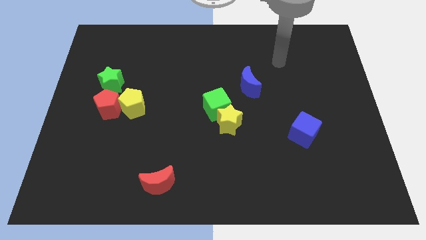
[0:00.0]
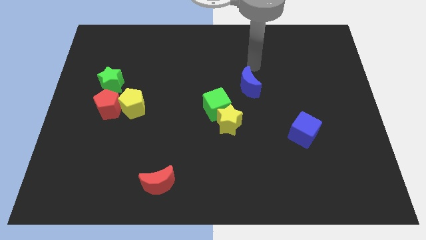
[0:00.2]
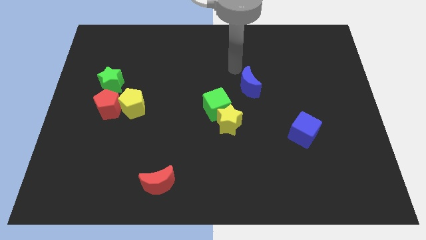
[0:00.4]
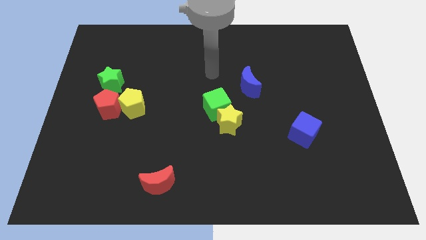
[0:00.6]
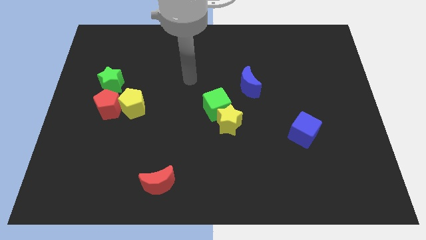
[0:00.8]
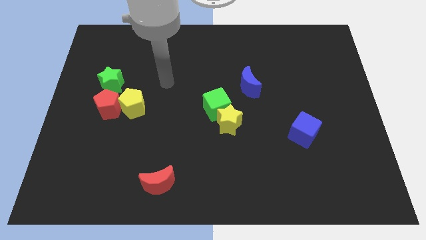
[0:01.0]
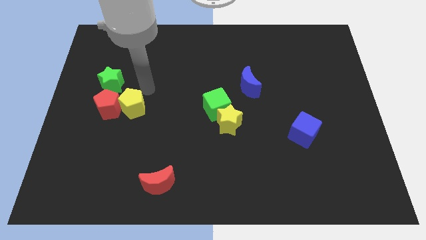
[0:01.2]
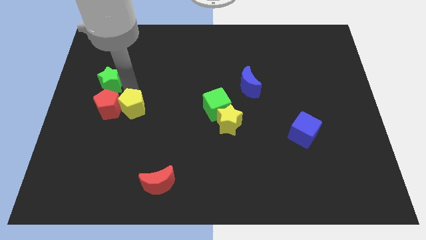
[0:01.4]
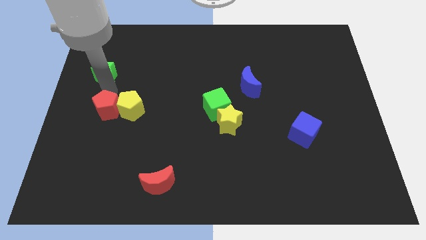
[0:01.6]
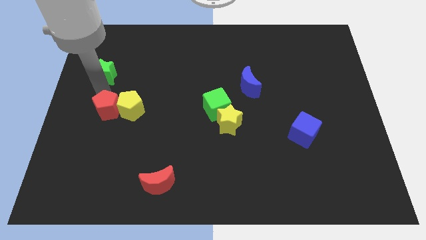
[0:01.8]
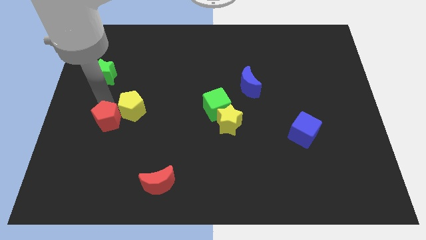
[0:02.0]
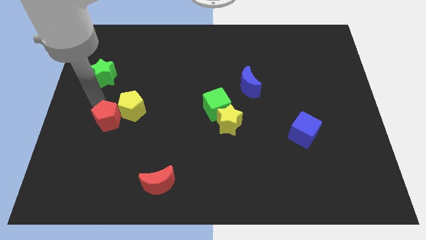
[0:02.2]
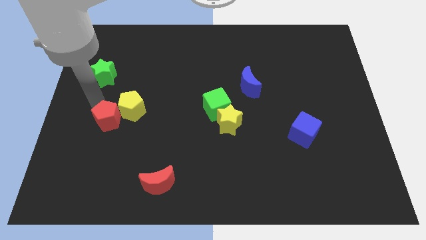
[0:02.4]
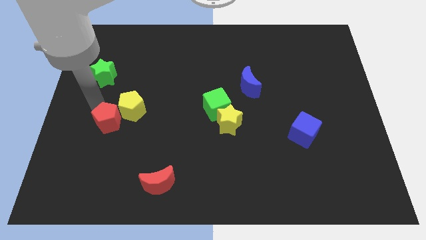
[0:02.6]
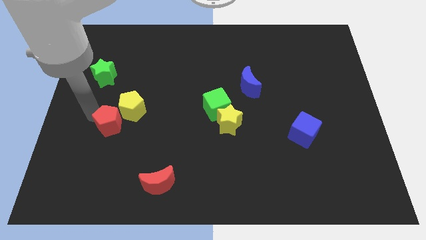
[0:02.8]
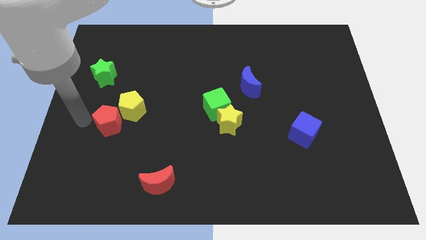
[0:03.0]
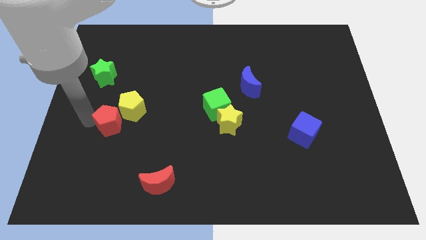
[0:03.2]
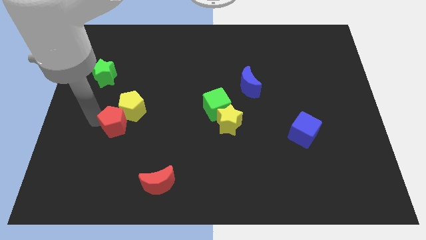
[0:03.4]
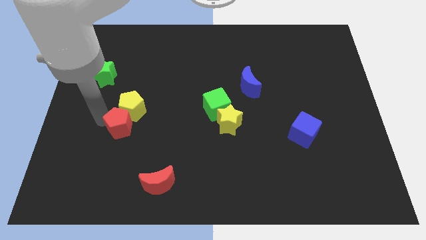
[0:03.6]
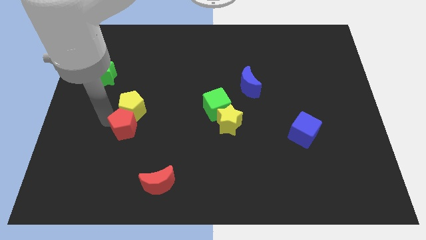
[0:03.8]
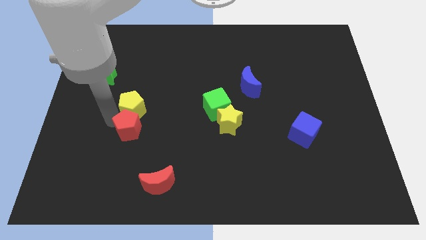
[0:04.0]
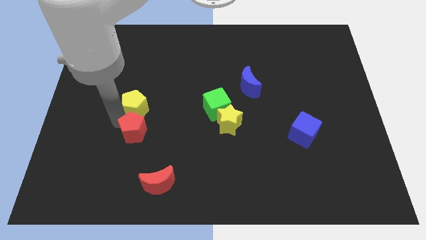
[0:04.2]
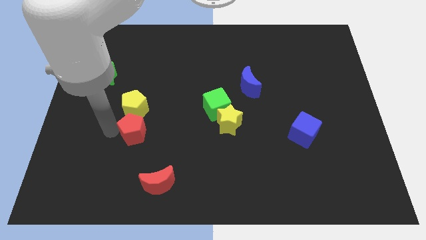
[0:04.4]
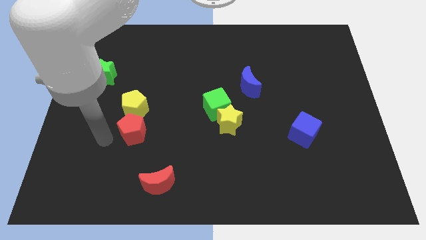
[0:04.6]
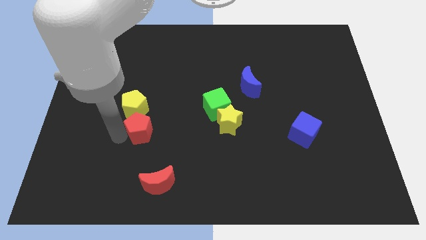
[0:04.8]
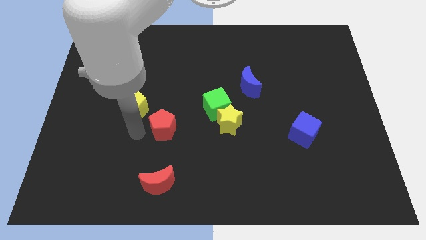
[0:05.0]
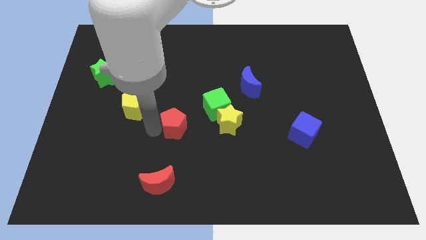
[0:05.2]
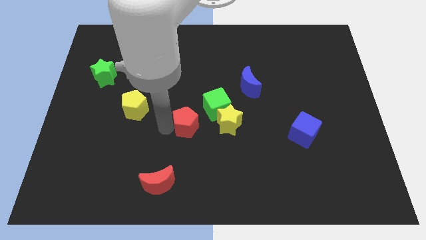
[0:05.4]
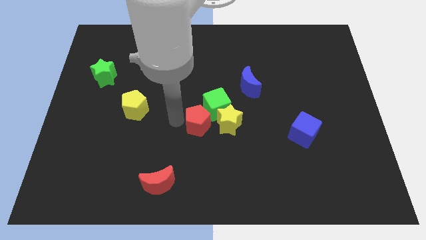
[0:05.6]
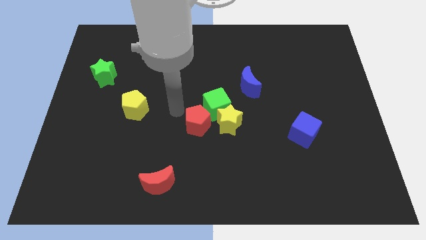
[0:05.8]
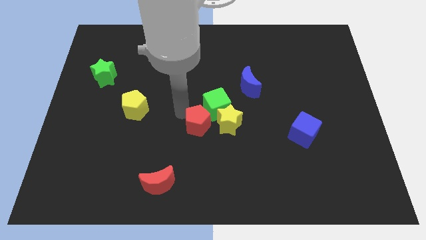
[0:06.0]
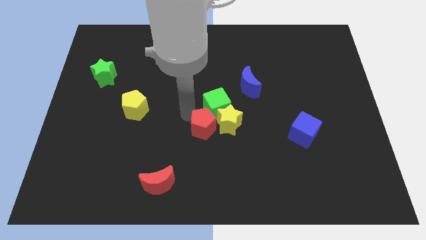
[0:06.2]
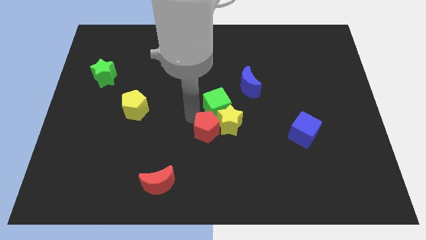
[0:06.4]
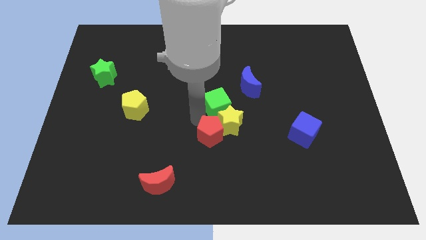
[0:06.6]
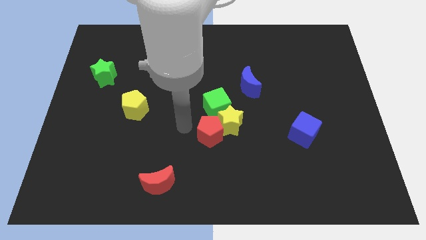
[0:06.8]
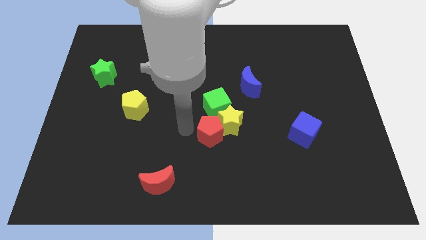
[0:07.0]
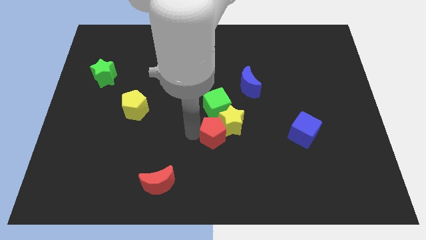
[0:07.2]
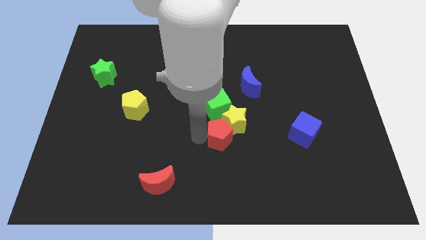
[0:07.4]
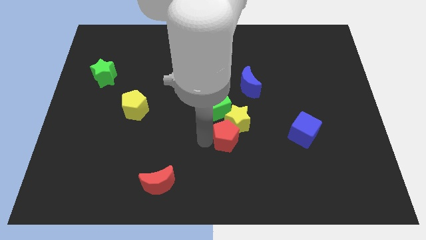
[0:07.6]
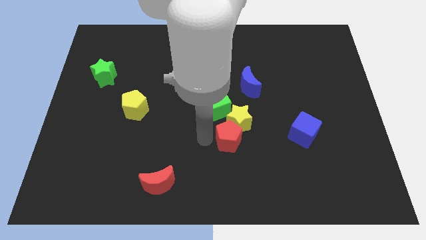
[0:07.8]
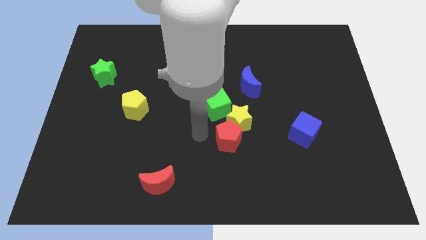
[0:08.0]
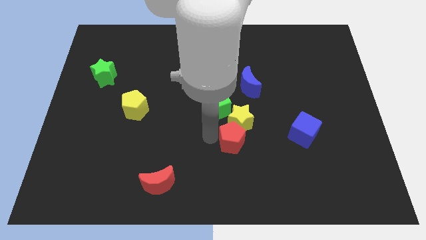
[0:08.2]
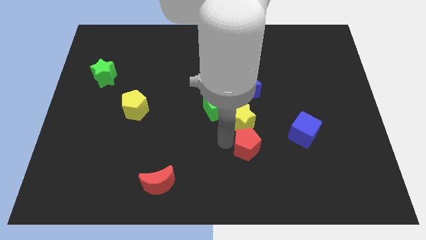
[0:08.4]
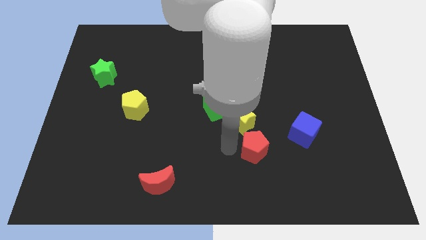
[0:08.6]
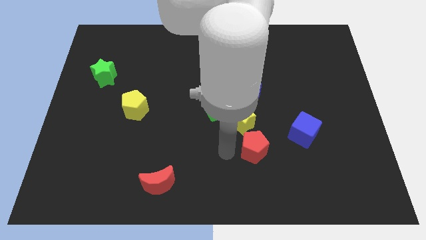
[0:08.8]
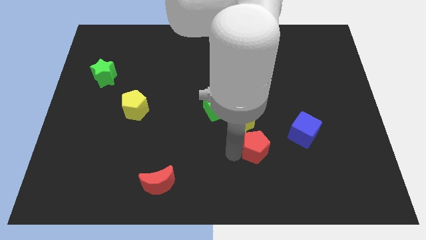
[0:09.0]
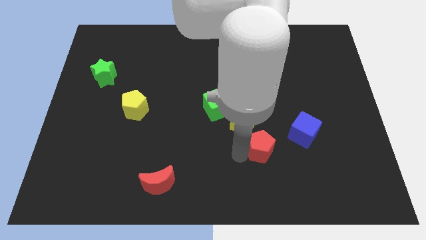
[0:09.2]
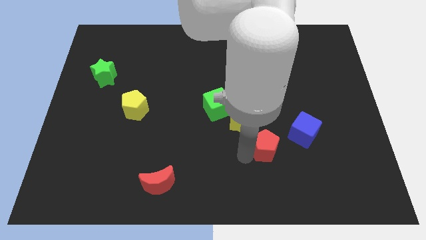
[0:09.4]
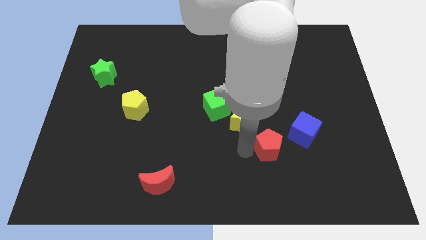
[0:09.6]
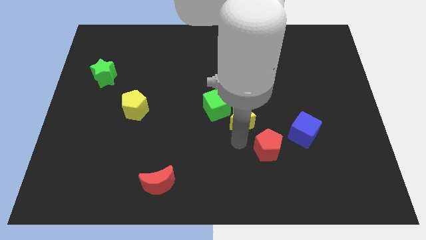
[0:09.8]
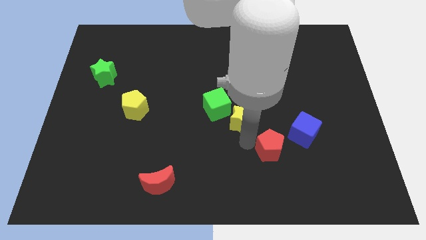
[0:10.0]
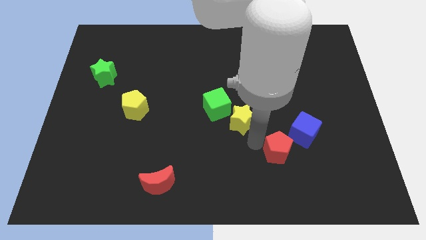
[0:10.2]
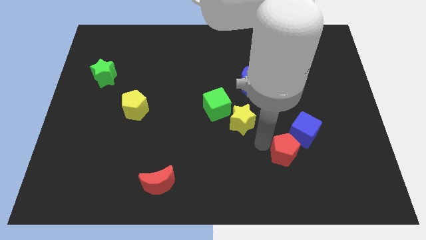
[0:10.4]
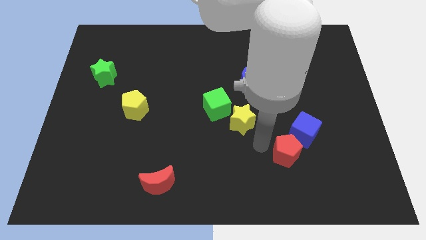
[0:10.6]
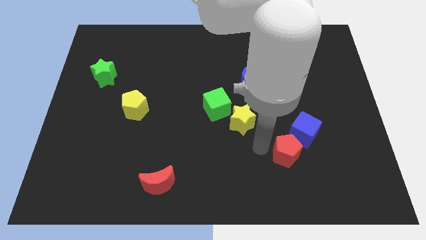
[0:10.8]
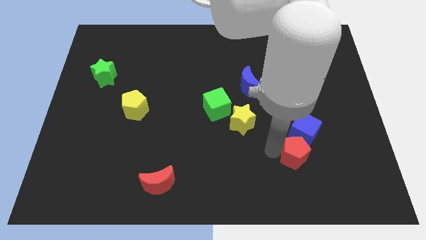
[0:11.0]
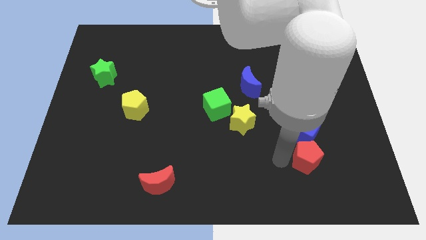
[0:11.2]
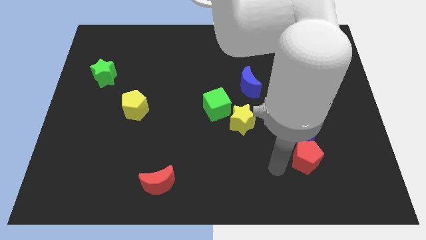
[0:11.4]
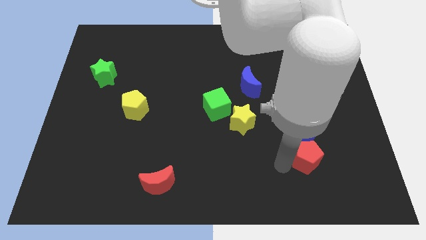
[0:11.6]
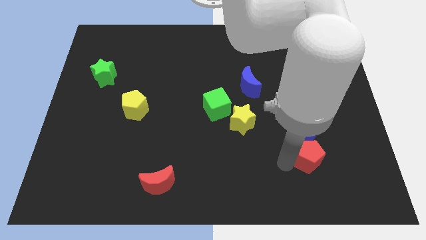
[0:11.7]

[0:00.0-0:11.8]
move the red pentagon to the bottom right of the blue cube

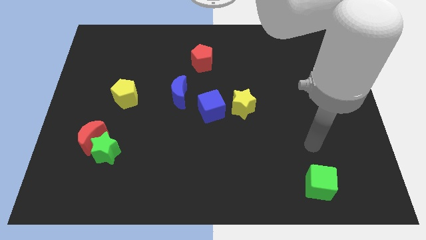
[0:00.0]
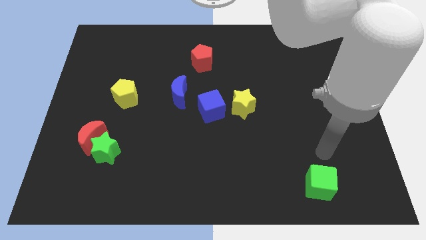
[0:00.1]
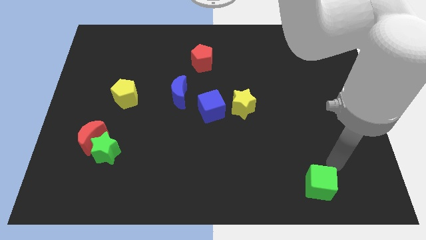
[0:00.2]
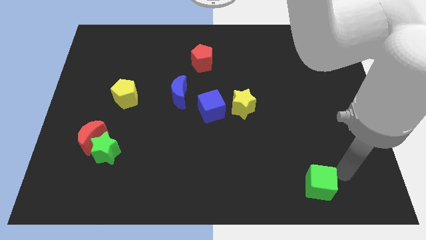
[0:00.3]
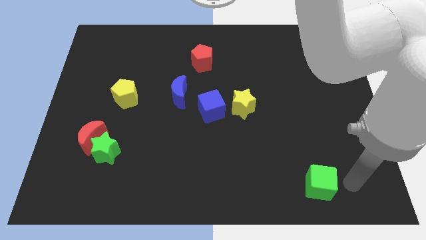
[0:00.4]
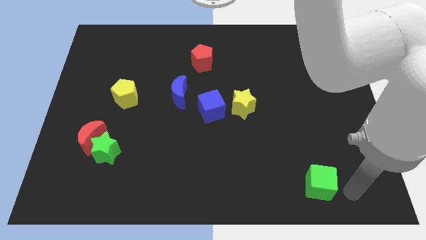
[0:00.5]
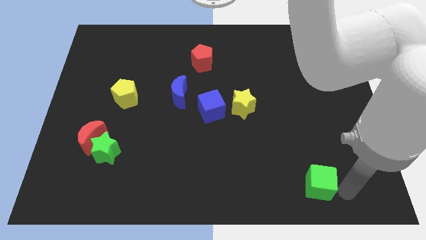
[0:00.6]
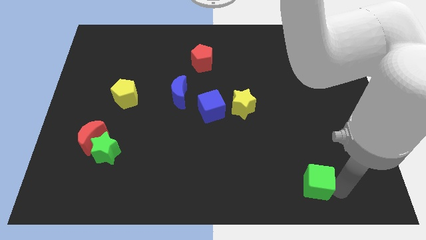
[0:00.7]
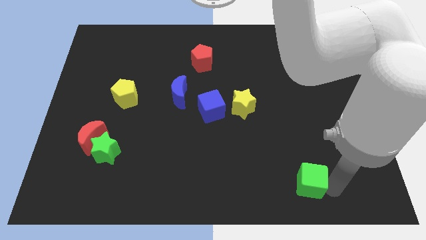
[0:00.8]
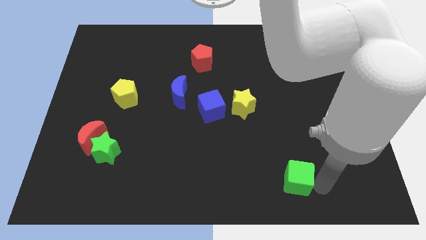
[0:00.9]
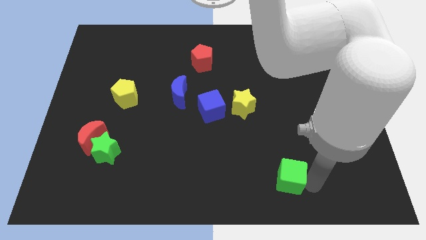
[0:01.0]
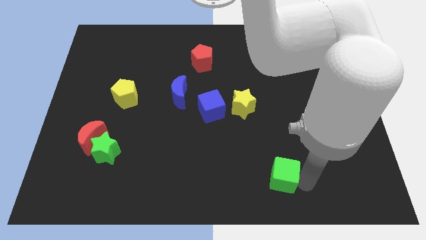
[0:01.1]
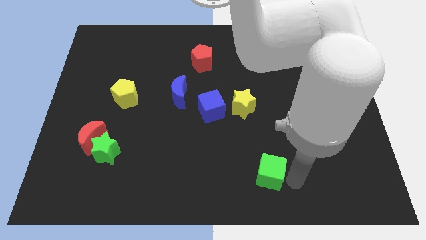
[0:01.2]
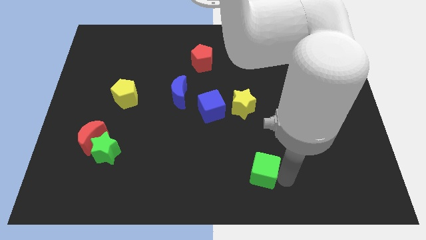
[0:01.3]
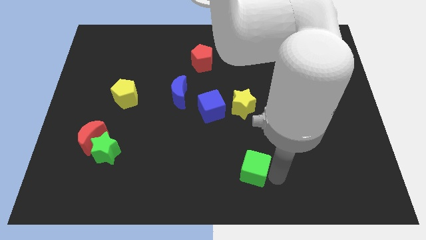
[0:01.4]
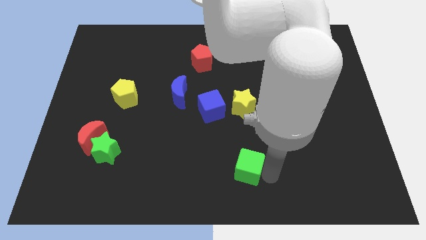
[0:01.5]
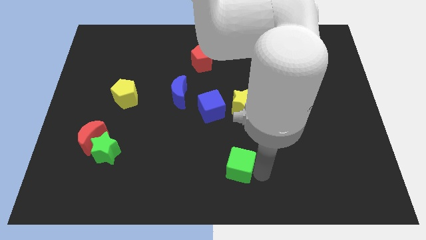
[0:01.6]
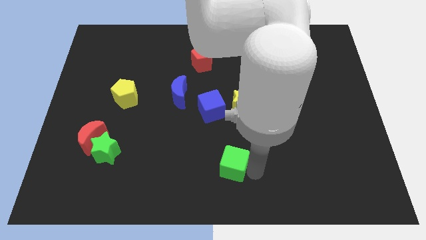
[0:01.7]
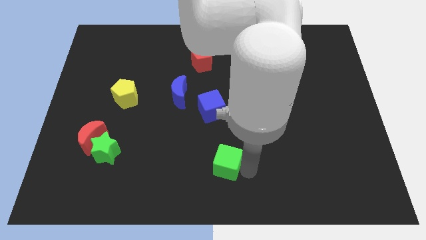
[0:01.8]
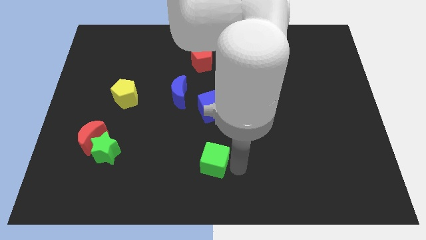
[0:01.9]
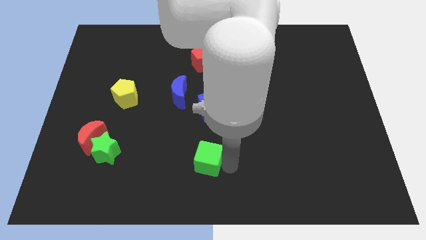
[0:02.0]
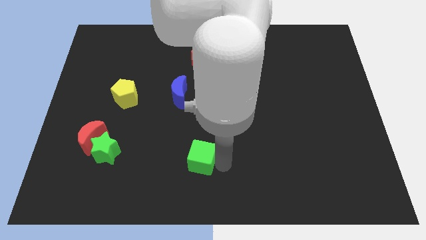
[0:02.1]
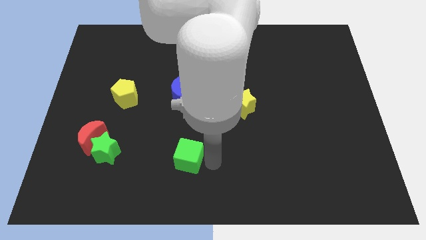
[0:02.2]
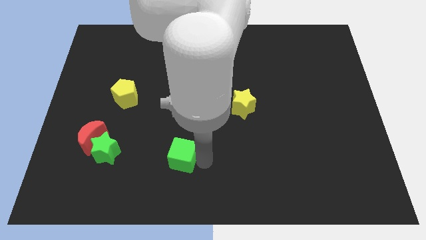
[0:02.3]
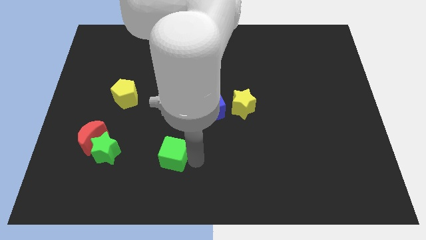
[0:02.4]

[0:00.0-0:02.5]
push the green cube just right of the green star
